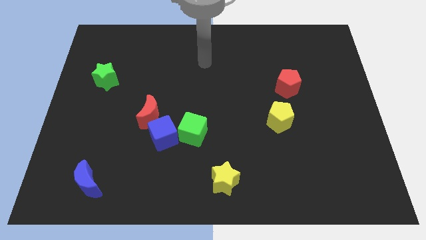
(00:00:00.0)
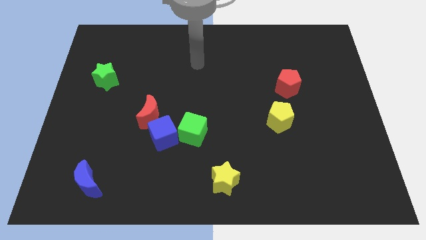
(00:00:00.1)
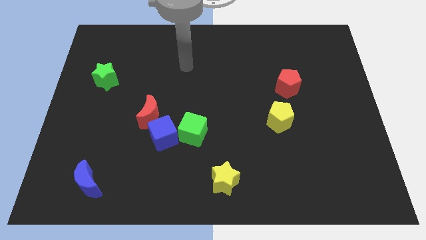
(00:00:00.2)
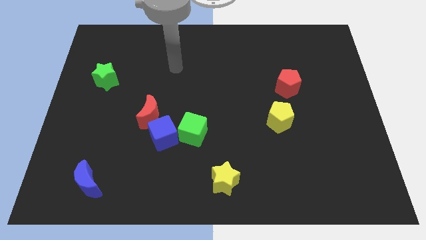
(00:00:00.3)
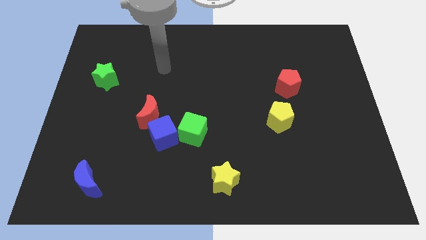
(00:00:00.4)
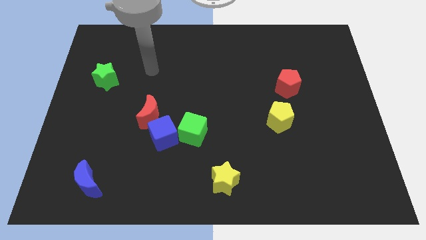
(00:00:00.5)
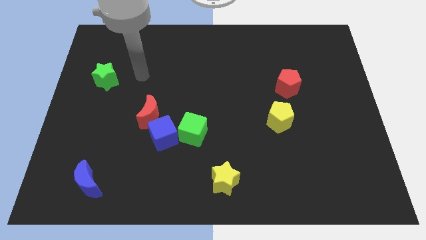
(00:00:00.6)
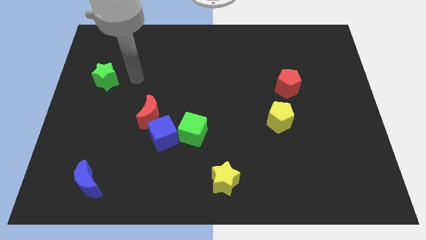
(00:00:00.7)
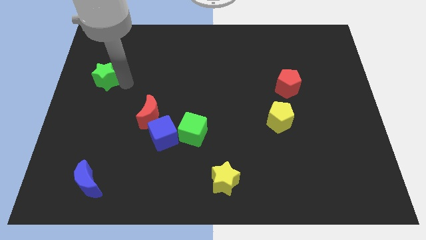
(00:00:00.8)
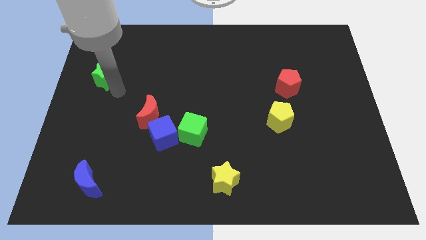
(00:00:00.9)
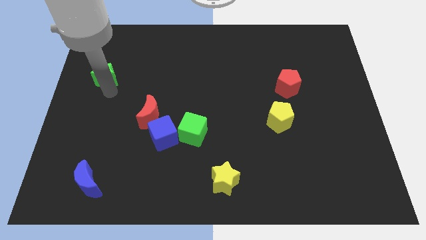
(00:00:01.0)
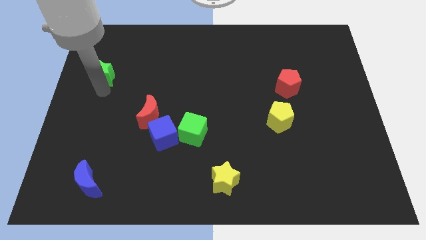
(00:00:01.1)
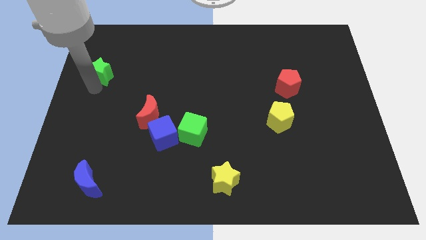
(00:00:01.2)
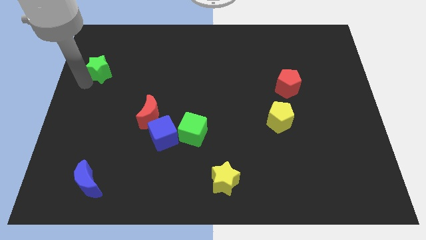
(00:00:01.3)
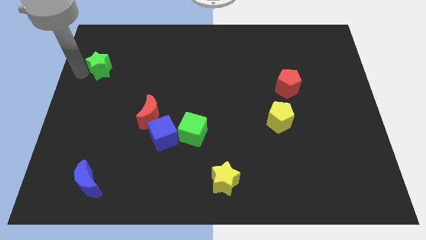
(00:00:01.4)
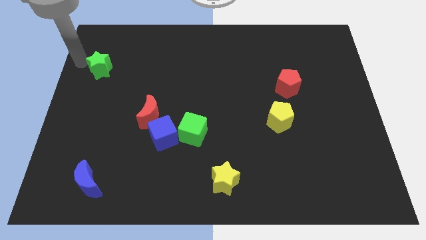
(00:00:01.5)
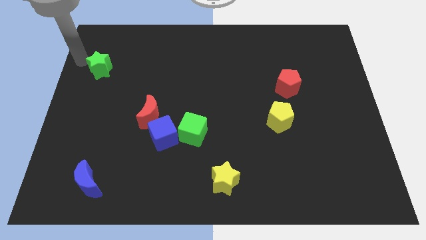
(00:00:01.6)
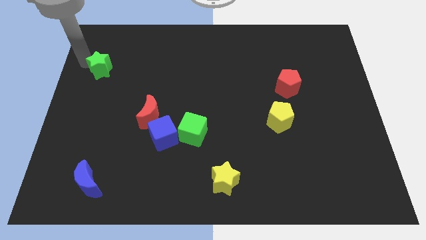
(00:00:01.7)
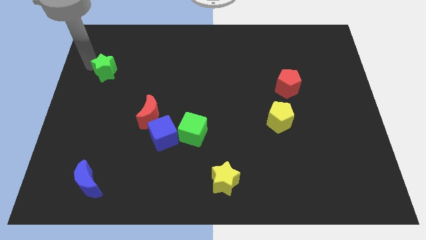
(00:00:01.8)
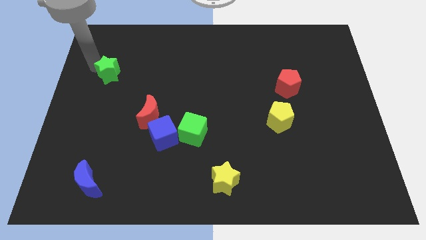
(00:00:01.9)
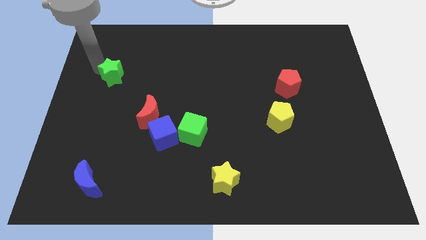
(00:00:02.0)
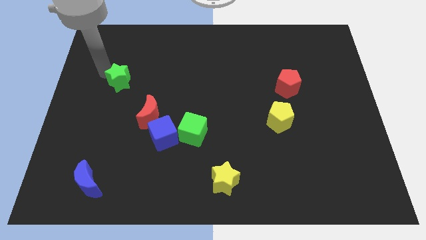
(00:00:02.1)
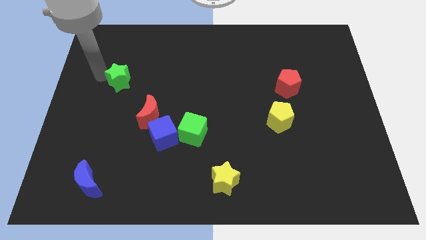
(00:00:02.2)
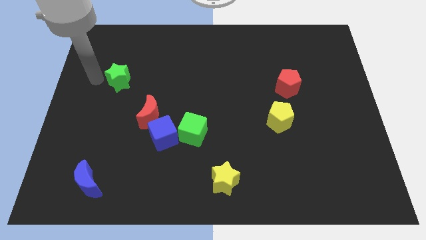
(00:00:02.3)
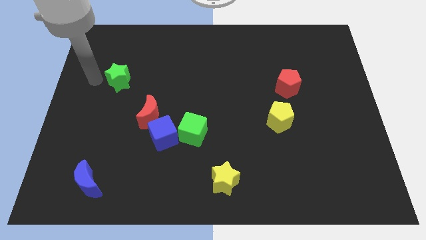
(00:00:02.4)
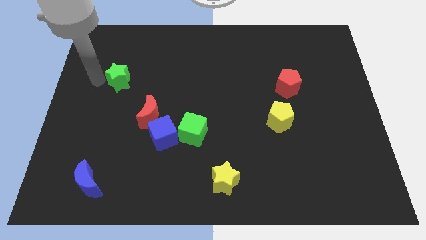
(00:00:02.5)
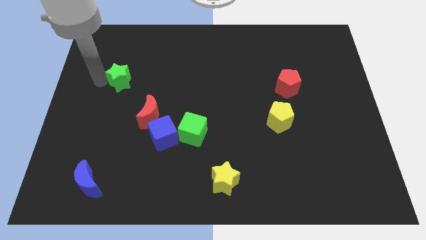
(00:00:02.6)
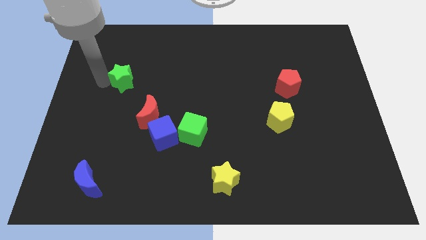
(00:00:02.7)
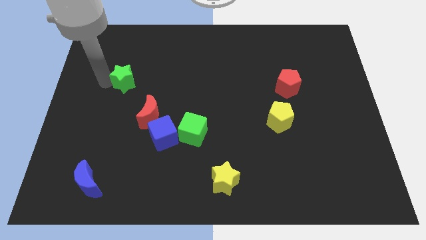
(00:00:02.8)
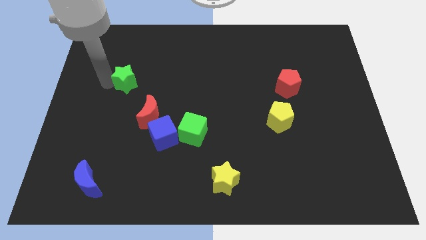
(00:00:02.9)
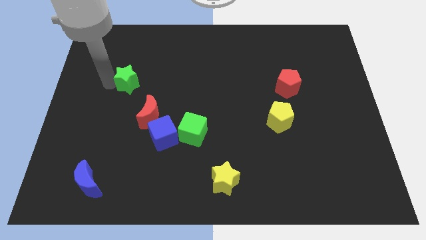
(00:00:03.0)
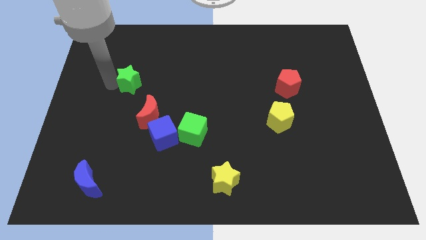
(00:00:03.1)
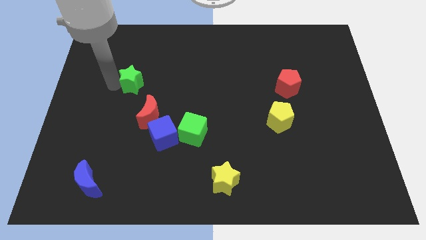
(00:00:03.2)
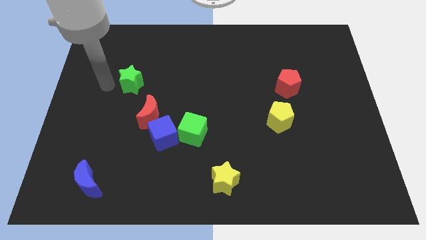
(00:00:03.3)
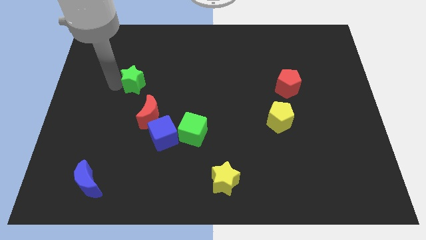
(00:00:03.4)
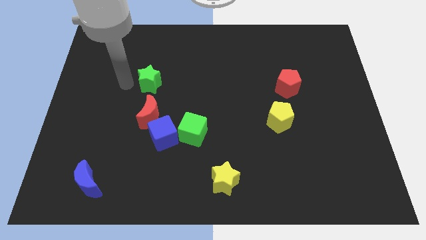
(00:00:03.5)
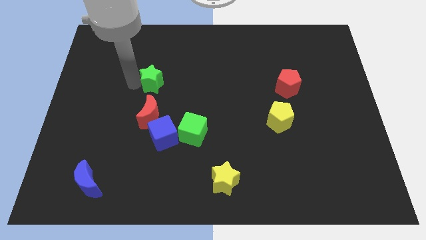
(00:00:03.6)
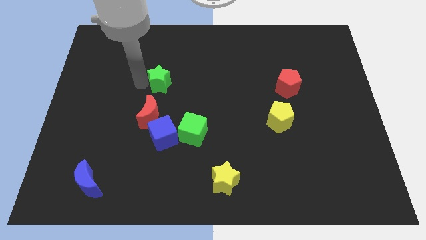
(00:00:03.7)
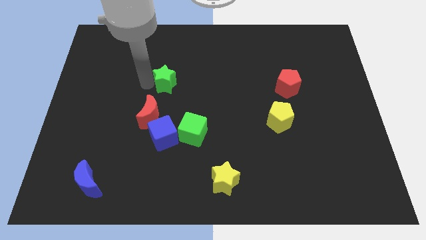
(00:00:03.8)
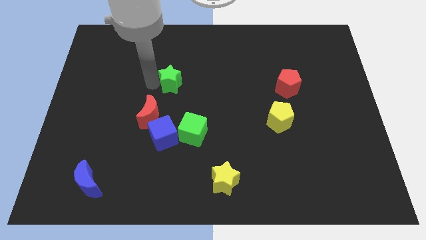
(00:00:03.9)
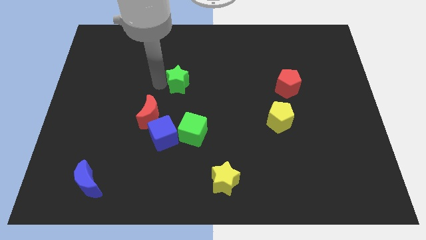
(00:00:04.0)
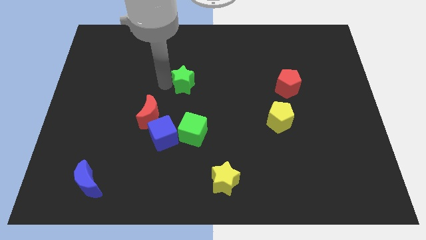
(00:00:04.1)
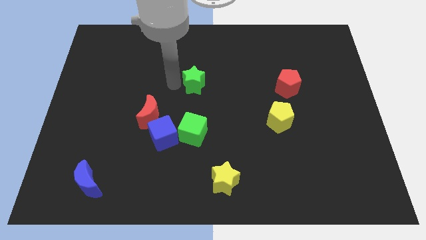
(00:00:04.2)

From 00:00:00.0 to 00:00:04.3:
push the green star to the right

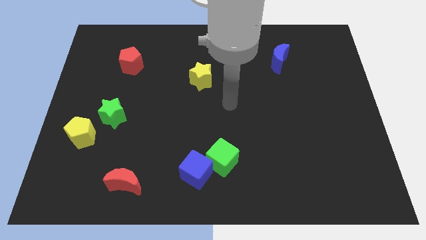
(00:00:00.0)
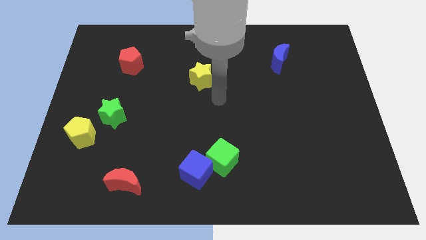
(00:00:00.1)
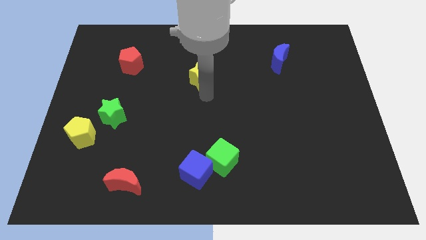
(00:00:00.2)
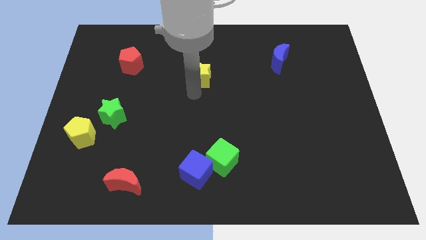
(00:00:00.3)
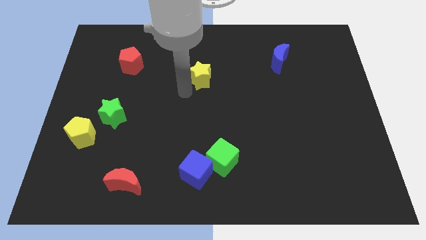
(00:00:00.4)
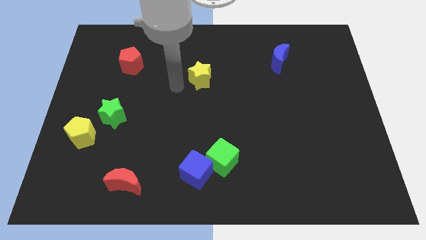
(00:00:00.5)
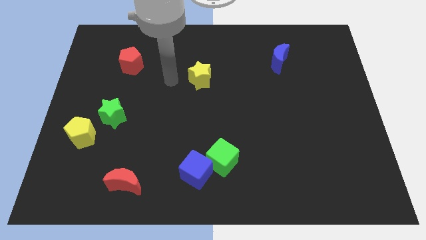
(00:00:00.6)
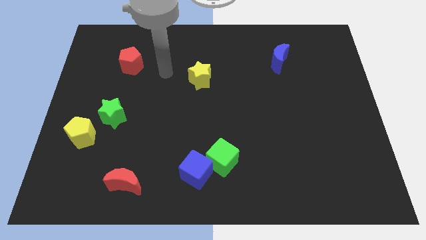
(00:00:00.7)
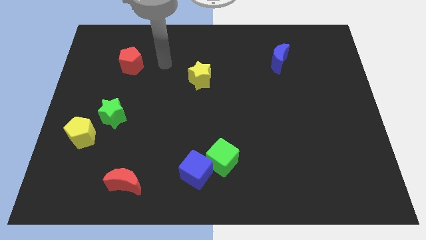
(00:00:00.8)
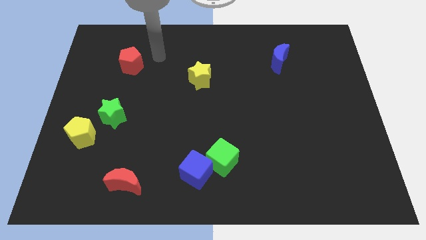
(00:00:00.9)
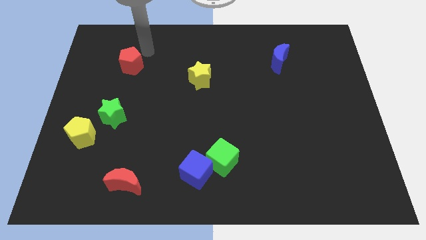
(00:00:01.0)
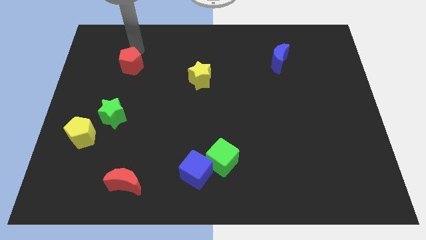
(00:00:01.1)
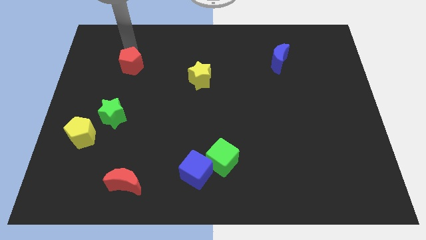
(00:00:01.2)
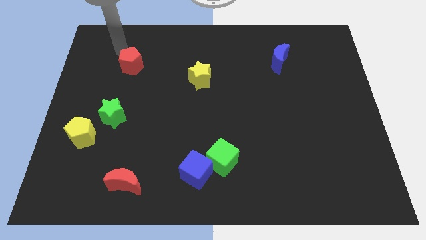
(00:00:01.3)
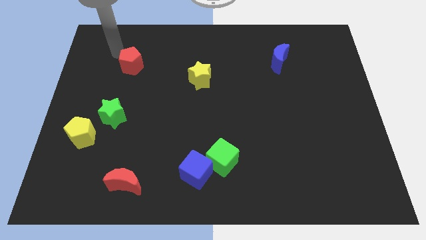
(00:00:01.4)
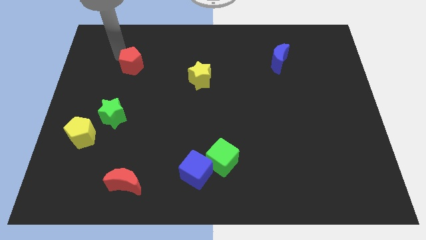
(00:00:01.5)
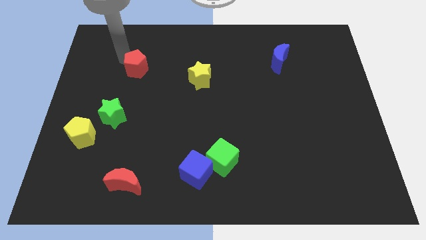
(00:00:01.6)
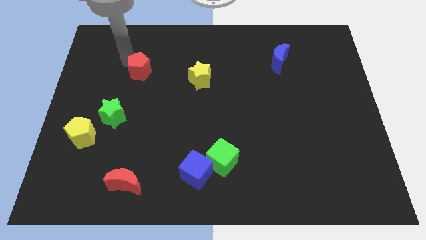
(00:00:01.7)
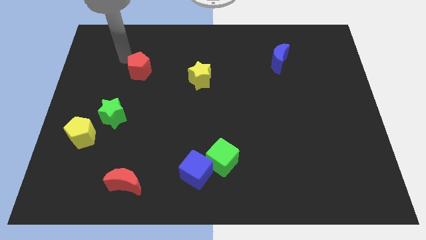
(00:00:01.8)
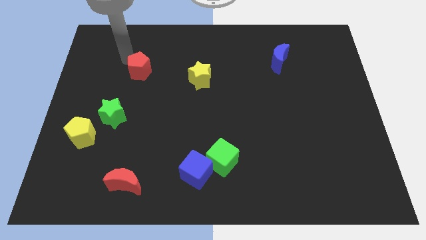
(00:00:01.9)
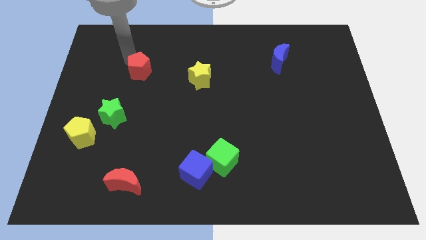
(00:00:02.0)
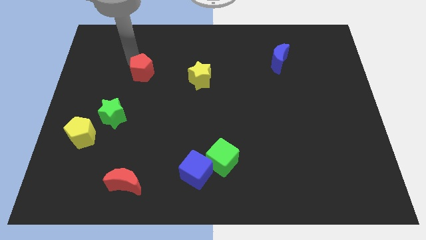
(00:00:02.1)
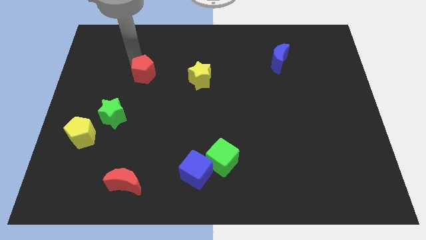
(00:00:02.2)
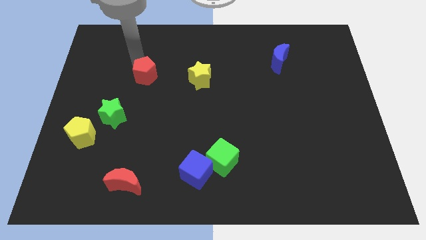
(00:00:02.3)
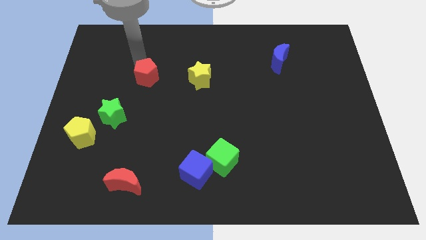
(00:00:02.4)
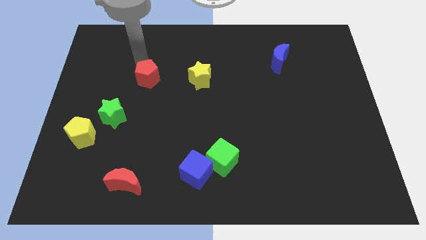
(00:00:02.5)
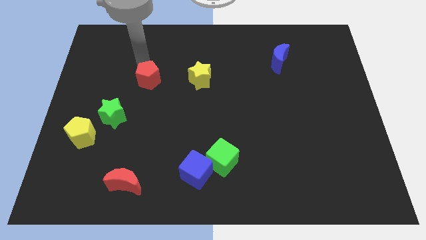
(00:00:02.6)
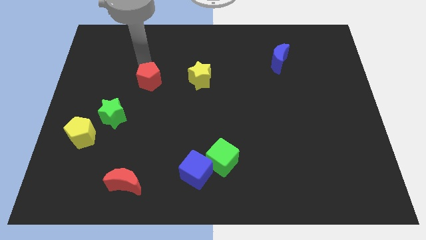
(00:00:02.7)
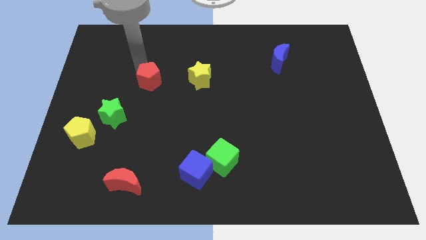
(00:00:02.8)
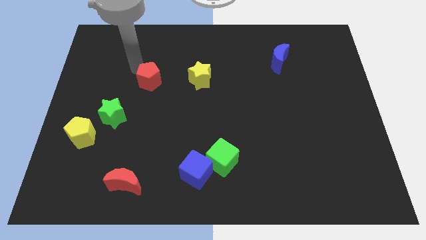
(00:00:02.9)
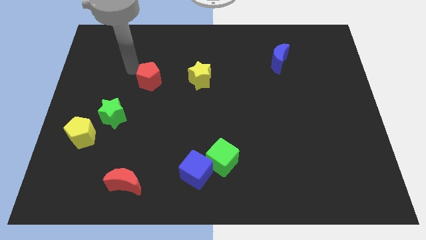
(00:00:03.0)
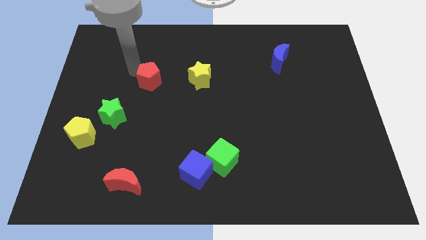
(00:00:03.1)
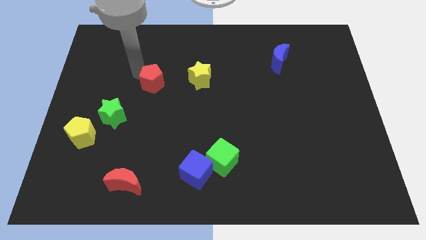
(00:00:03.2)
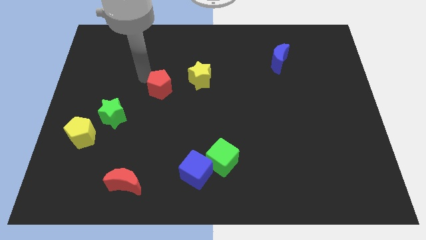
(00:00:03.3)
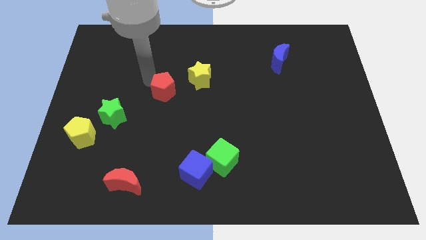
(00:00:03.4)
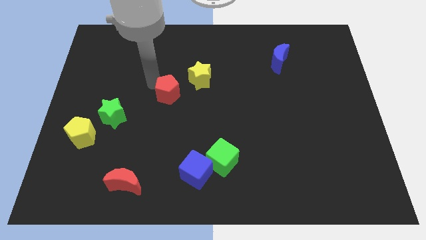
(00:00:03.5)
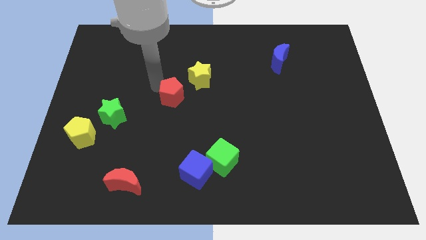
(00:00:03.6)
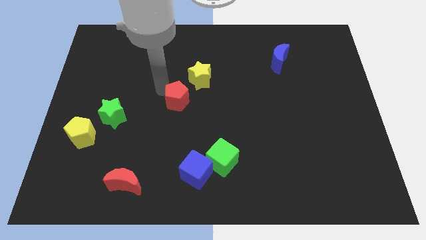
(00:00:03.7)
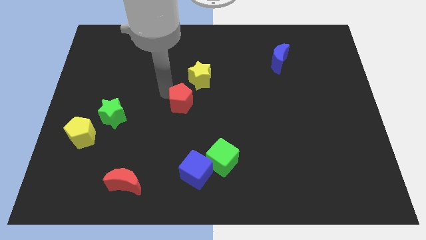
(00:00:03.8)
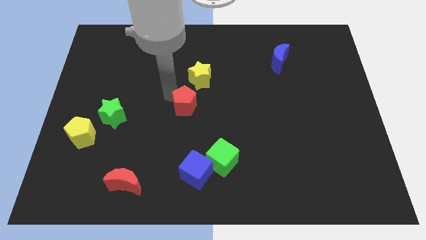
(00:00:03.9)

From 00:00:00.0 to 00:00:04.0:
push the red pentagon down and then to the right
